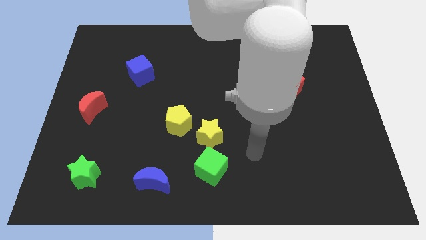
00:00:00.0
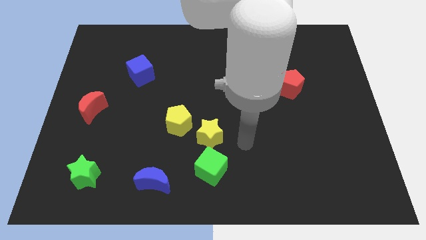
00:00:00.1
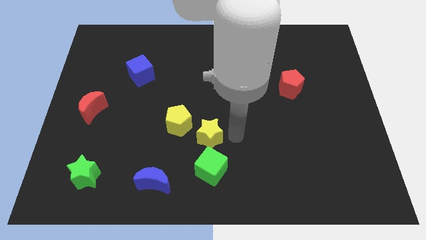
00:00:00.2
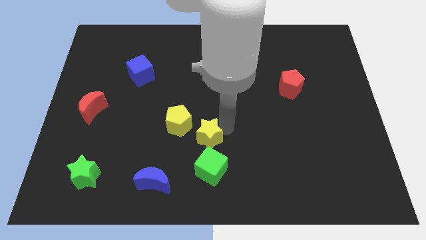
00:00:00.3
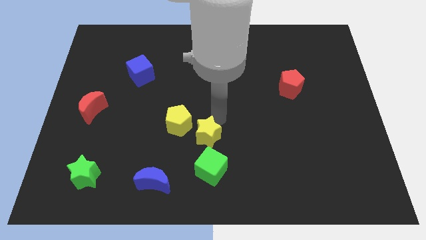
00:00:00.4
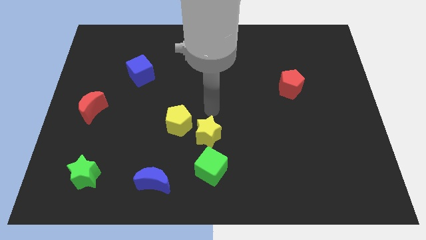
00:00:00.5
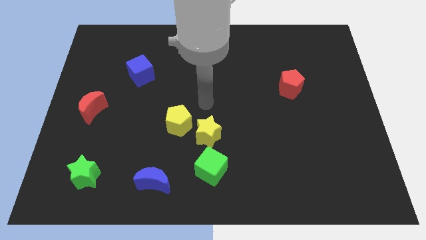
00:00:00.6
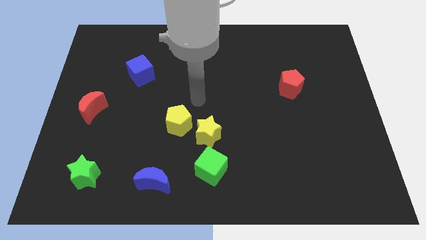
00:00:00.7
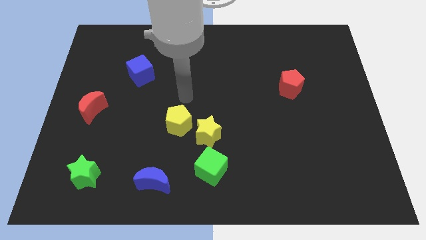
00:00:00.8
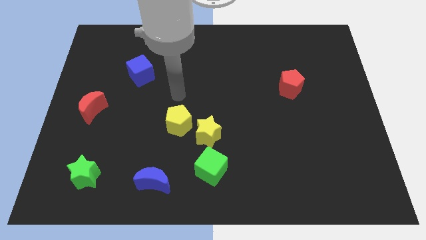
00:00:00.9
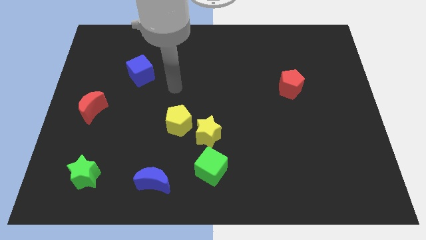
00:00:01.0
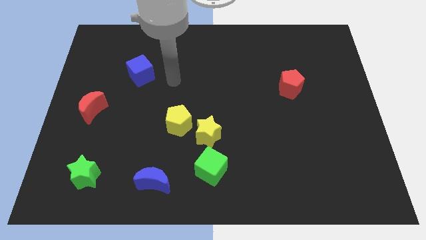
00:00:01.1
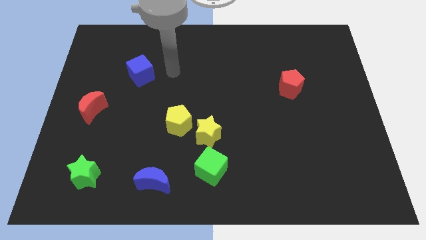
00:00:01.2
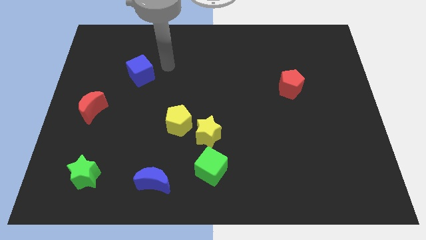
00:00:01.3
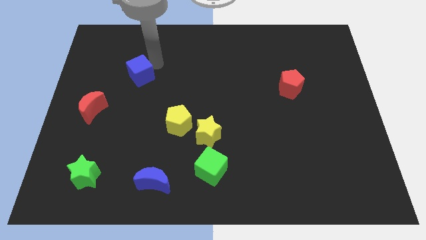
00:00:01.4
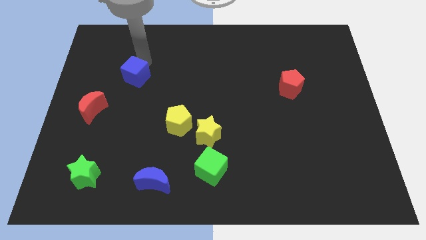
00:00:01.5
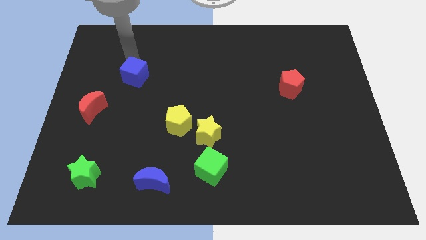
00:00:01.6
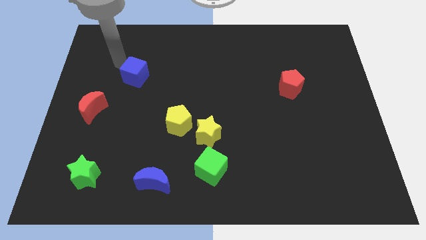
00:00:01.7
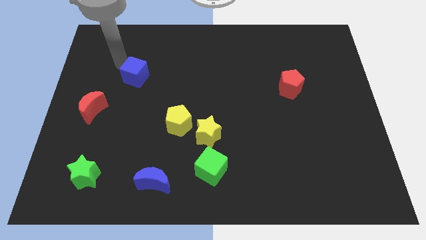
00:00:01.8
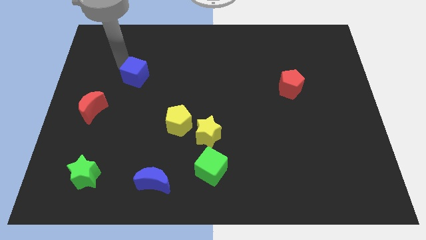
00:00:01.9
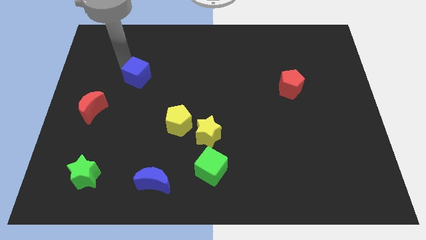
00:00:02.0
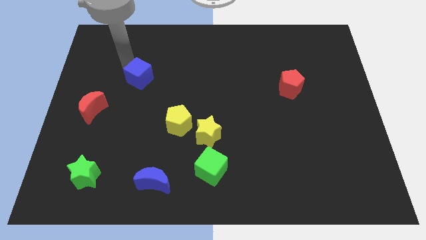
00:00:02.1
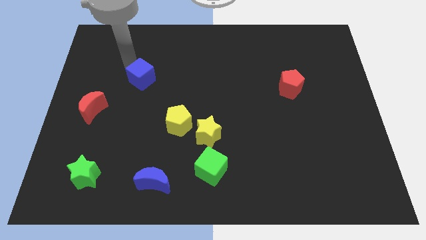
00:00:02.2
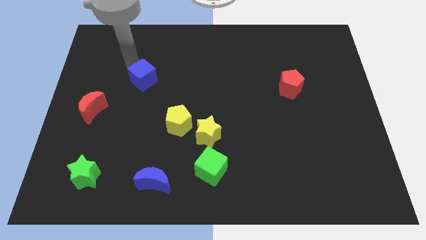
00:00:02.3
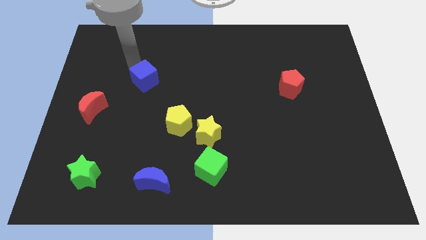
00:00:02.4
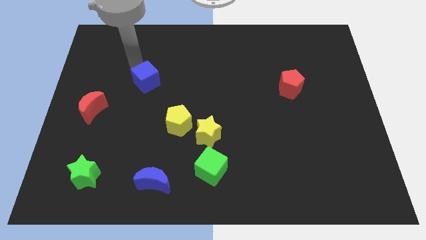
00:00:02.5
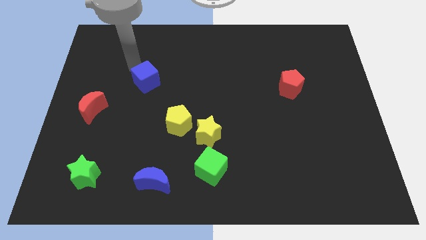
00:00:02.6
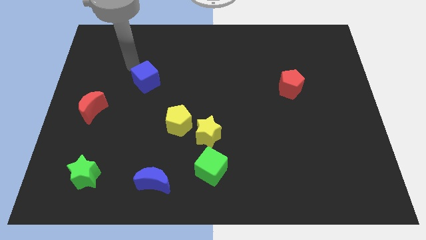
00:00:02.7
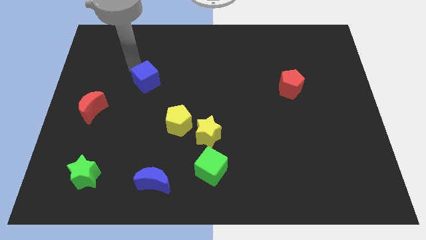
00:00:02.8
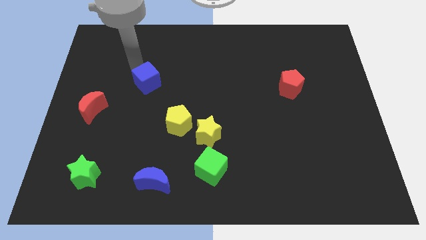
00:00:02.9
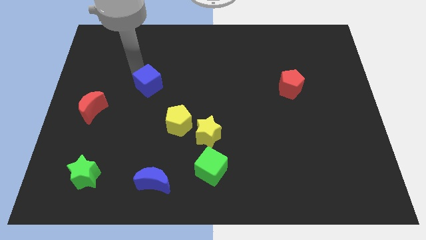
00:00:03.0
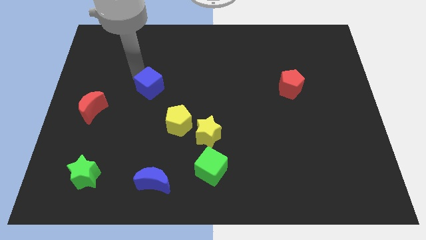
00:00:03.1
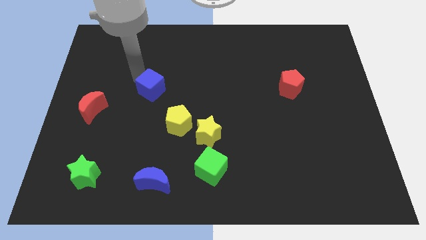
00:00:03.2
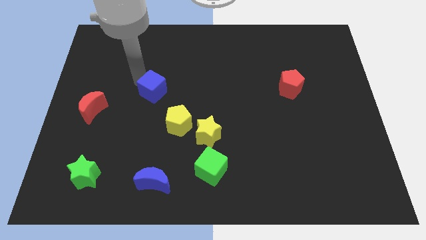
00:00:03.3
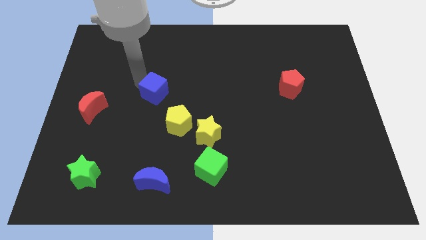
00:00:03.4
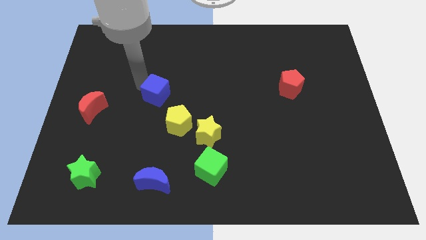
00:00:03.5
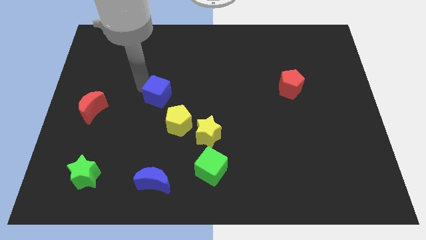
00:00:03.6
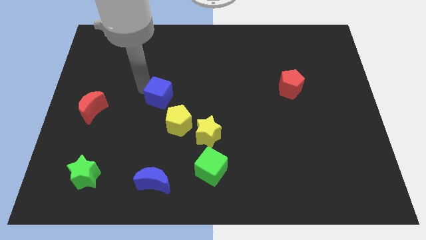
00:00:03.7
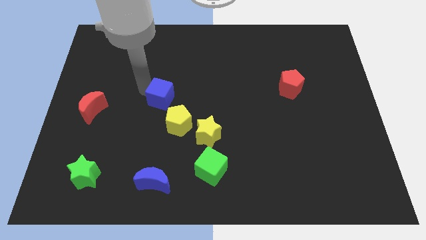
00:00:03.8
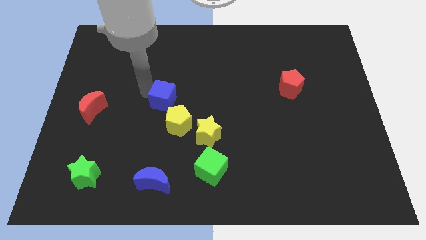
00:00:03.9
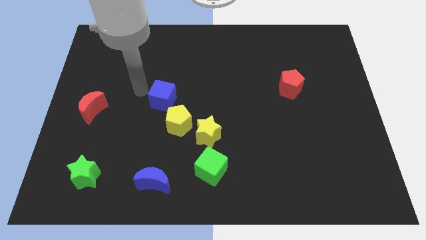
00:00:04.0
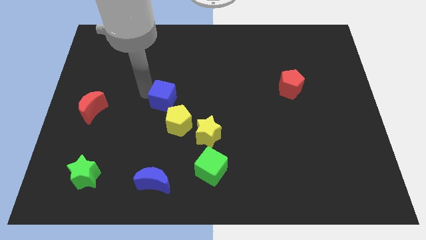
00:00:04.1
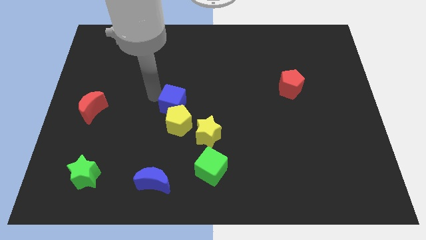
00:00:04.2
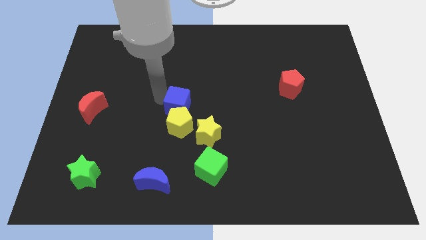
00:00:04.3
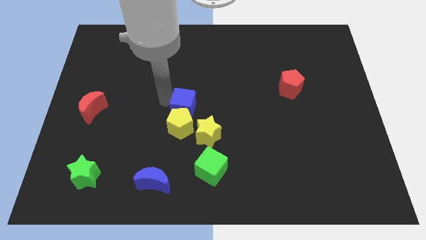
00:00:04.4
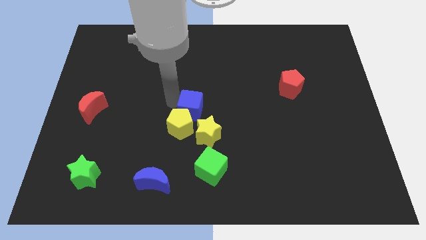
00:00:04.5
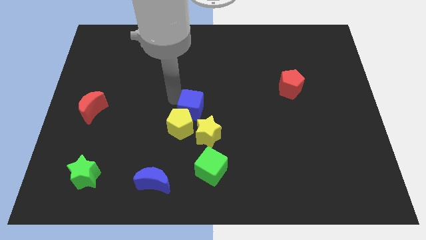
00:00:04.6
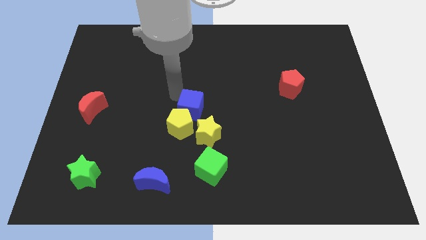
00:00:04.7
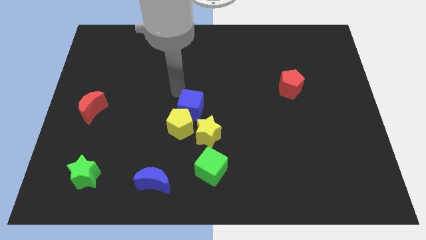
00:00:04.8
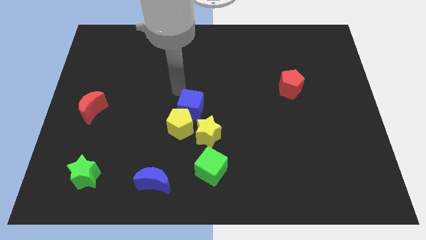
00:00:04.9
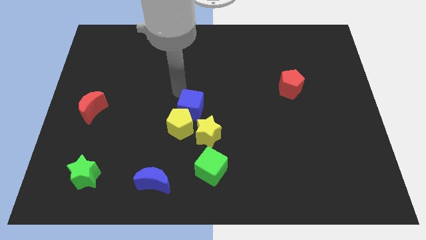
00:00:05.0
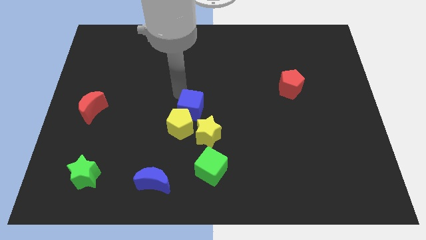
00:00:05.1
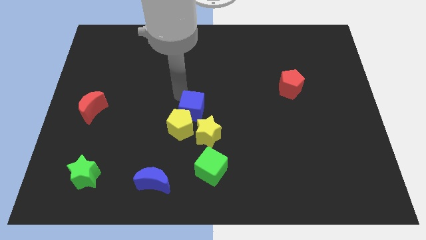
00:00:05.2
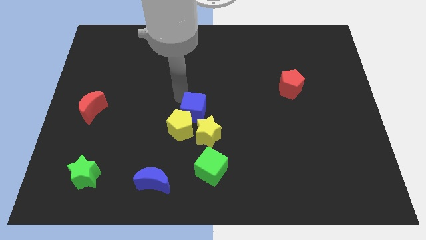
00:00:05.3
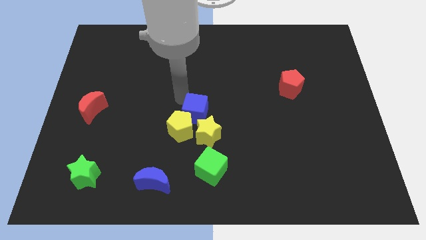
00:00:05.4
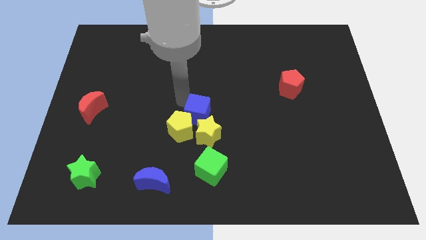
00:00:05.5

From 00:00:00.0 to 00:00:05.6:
push the blue cube to the yellow star
